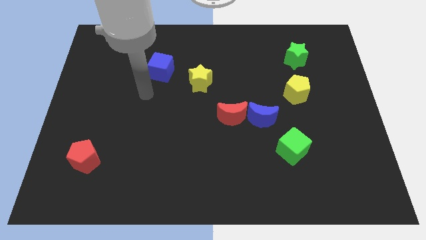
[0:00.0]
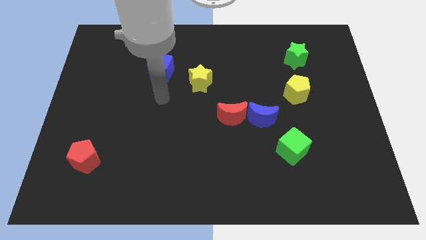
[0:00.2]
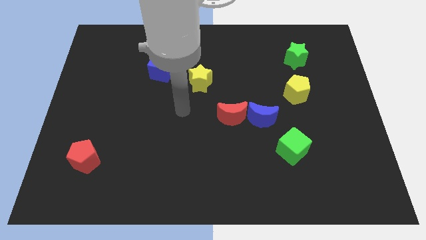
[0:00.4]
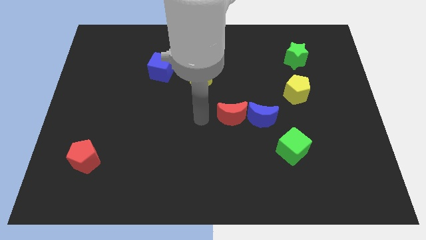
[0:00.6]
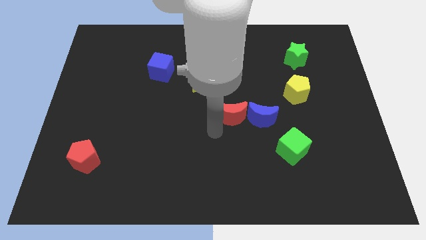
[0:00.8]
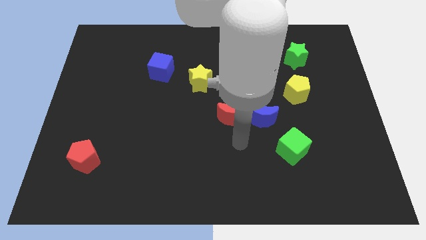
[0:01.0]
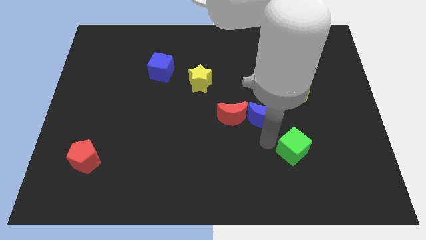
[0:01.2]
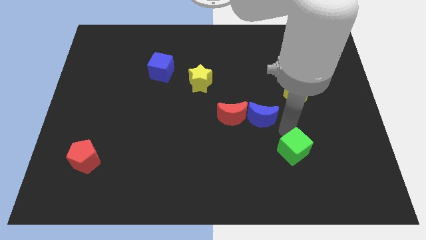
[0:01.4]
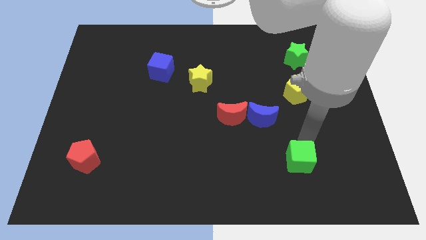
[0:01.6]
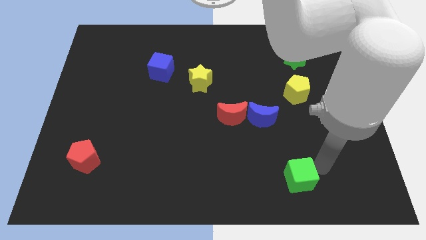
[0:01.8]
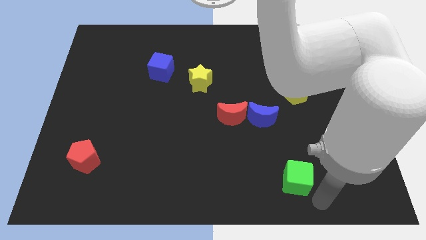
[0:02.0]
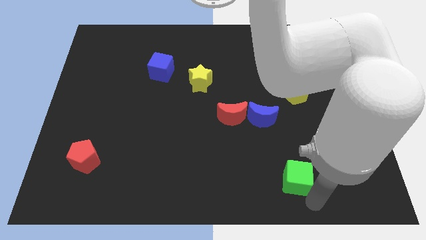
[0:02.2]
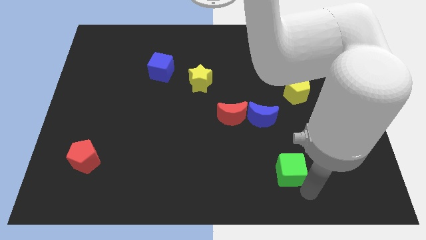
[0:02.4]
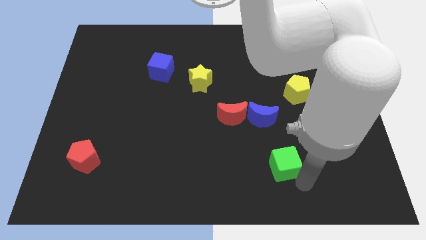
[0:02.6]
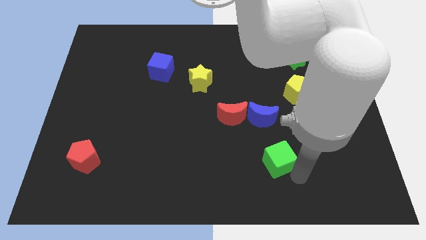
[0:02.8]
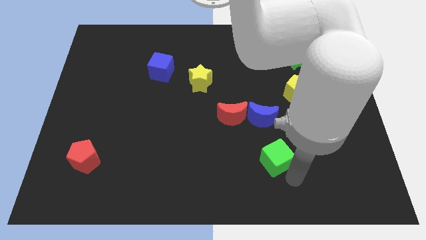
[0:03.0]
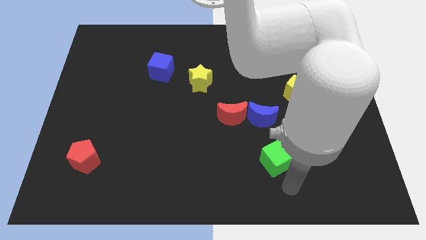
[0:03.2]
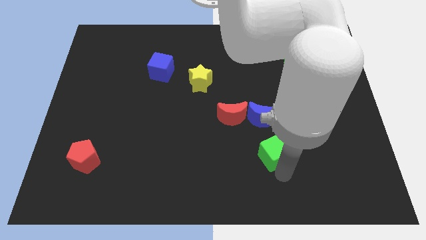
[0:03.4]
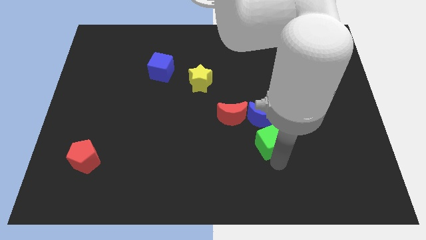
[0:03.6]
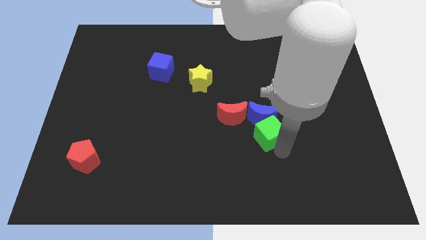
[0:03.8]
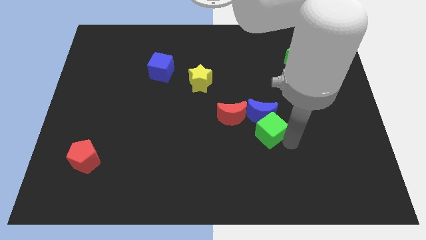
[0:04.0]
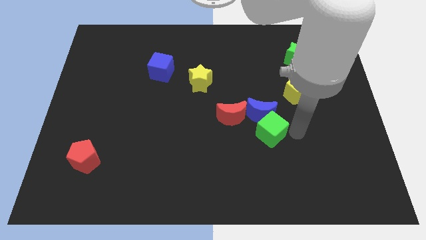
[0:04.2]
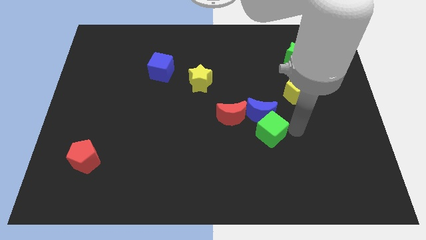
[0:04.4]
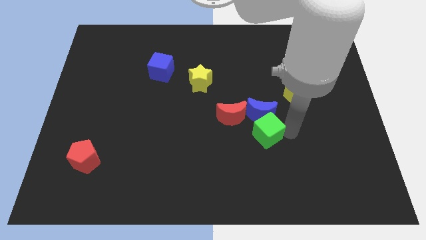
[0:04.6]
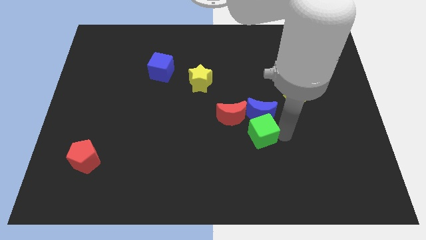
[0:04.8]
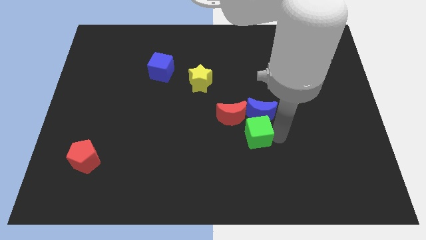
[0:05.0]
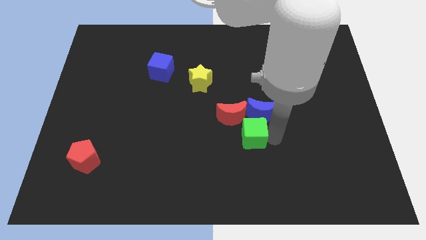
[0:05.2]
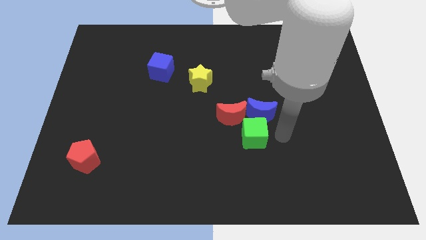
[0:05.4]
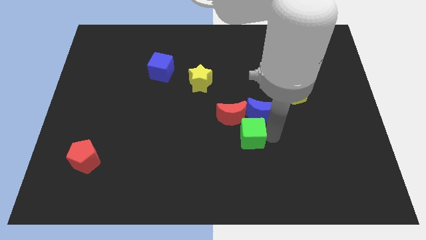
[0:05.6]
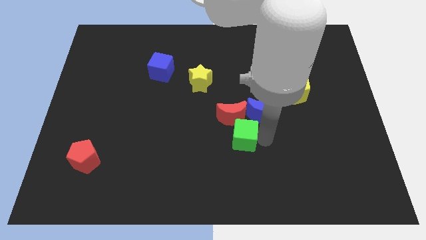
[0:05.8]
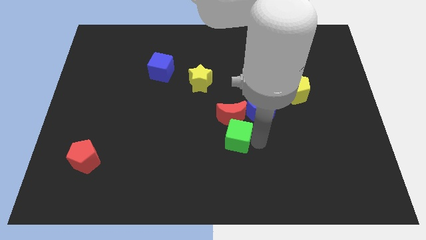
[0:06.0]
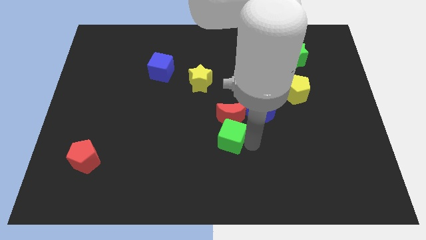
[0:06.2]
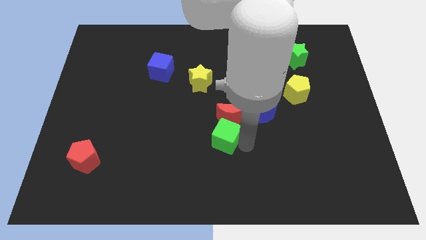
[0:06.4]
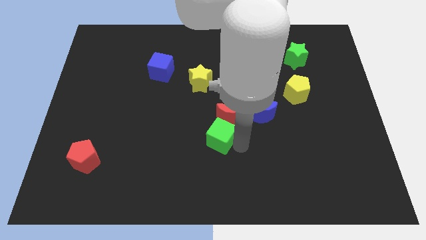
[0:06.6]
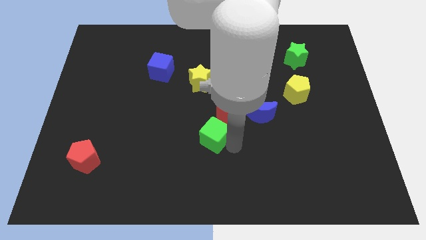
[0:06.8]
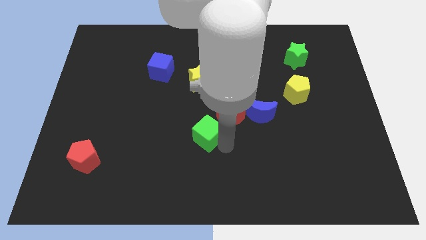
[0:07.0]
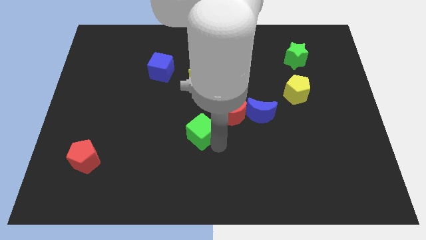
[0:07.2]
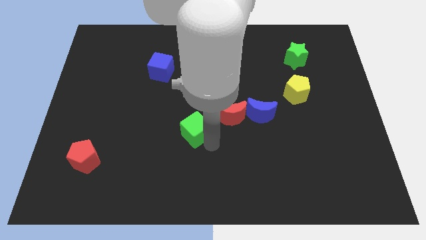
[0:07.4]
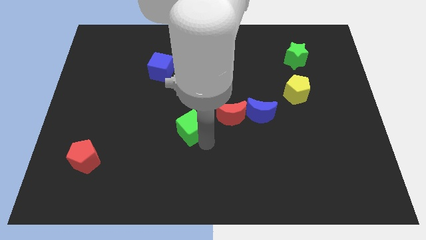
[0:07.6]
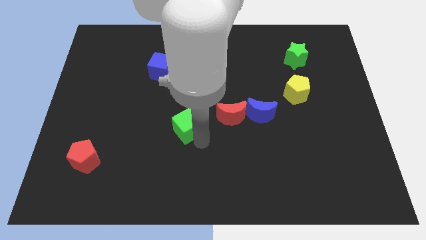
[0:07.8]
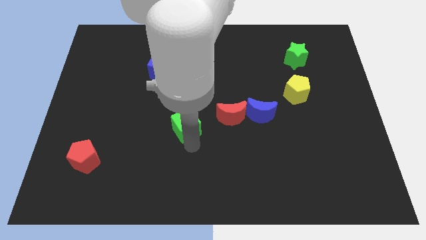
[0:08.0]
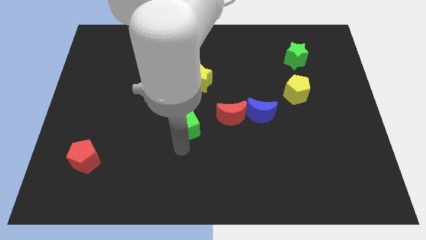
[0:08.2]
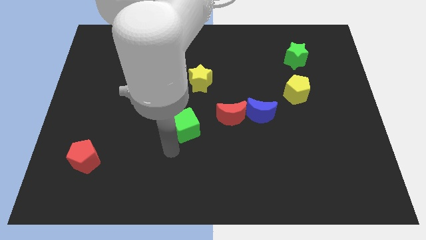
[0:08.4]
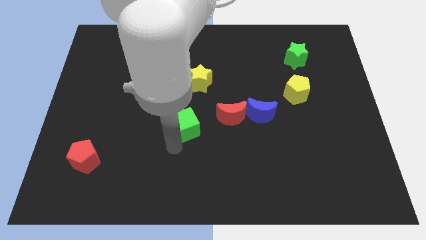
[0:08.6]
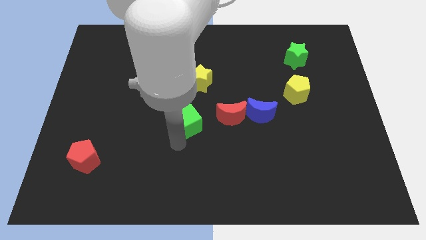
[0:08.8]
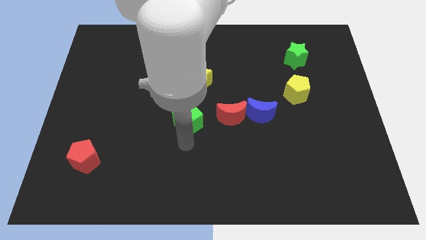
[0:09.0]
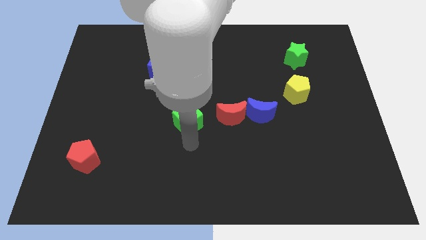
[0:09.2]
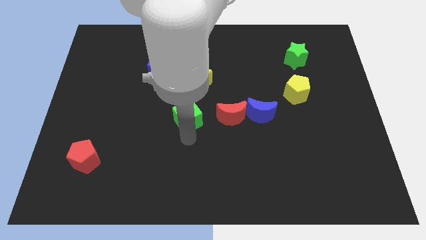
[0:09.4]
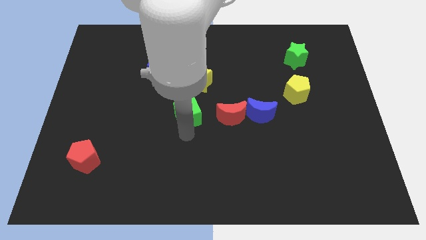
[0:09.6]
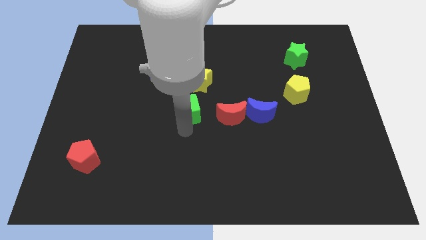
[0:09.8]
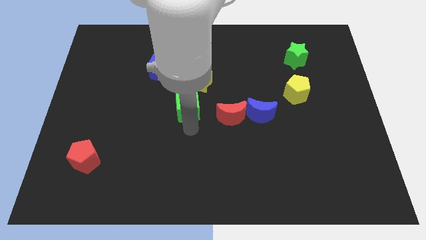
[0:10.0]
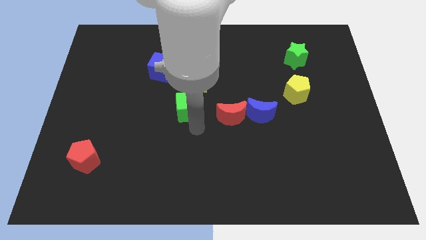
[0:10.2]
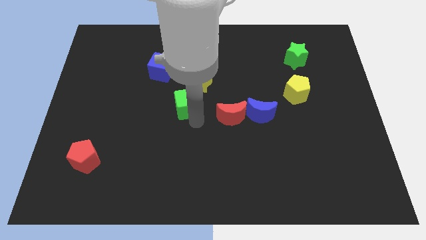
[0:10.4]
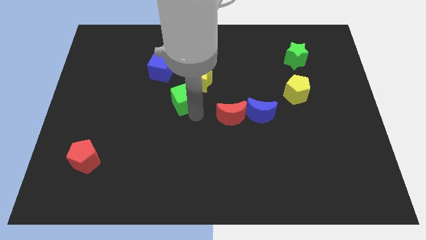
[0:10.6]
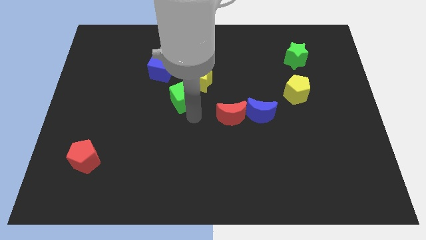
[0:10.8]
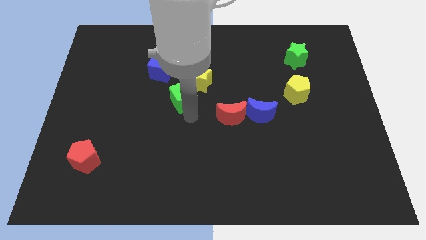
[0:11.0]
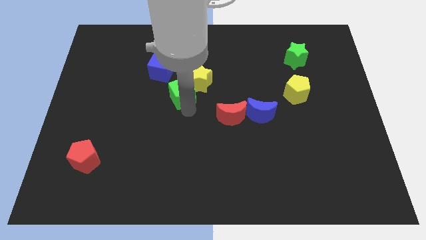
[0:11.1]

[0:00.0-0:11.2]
push the green cube to the left side of the yellow star

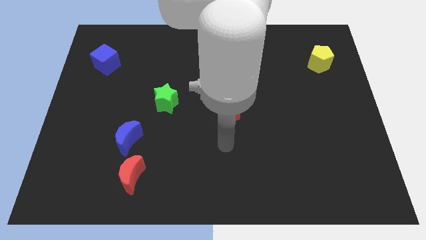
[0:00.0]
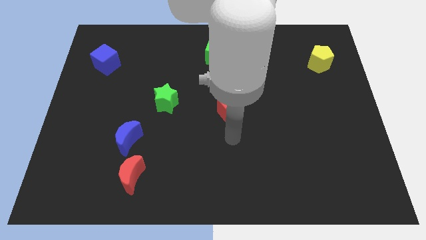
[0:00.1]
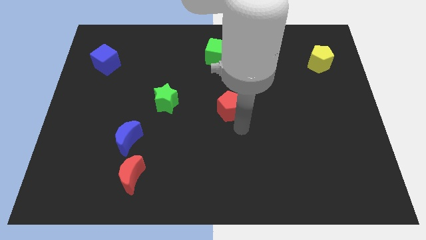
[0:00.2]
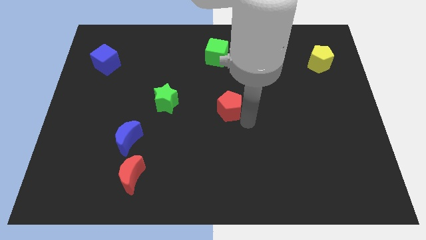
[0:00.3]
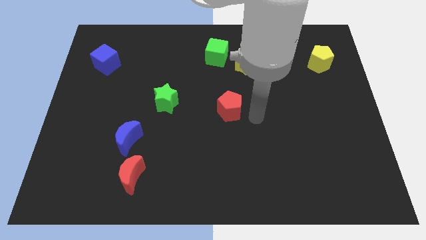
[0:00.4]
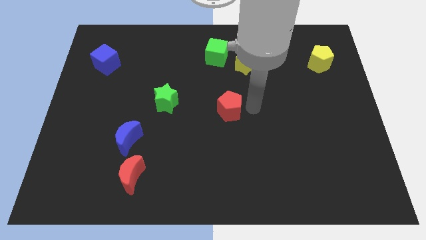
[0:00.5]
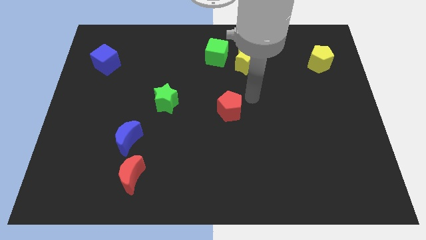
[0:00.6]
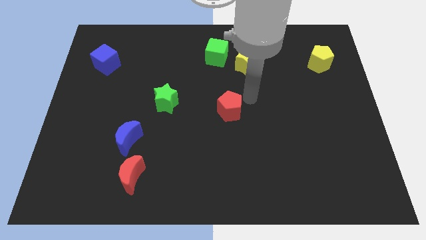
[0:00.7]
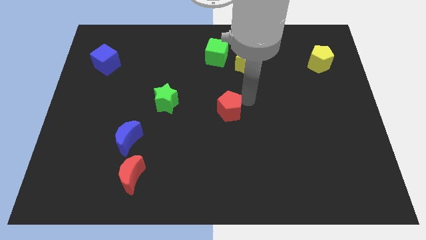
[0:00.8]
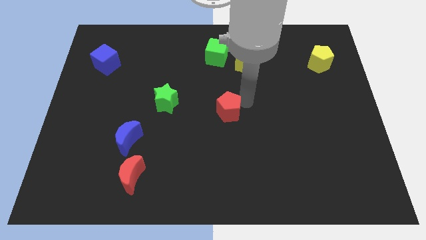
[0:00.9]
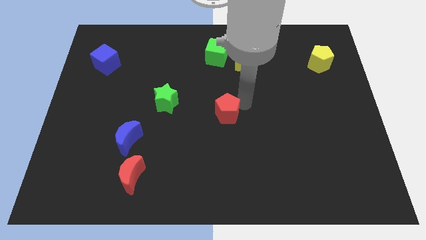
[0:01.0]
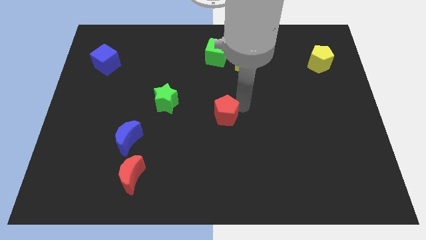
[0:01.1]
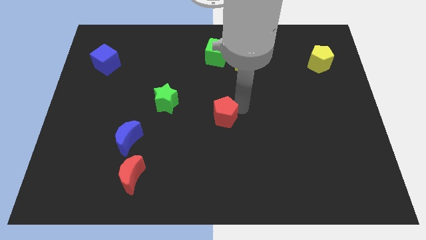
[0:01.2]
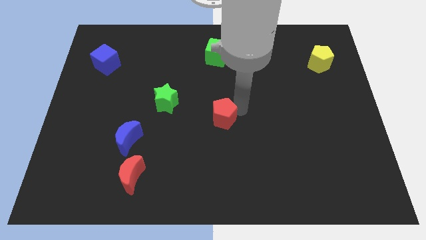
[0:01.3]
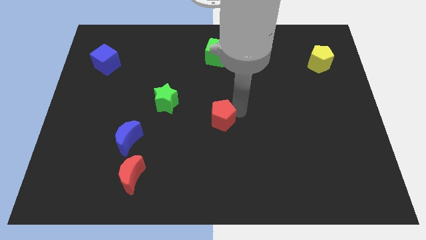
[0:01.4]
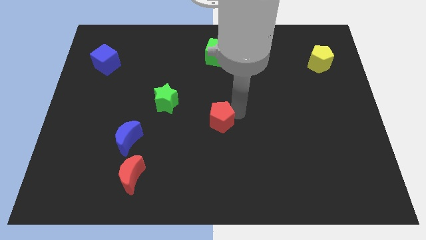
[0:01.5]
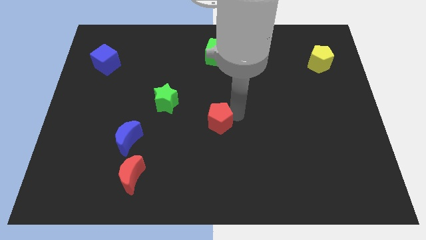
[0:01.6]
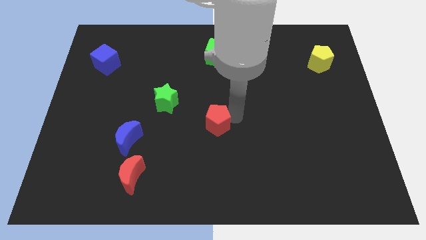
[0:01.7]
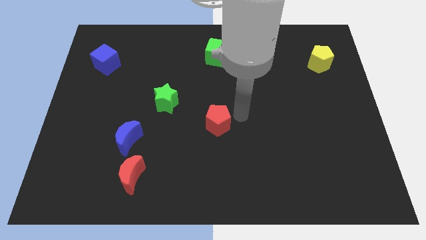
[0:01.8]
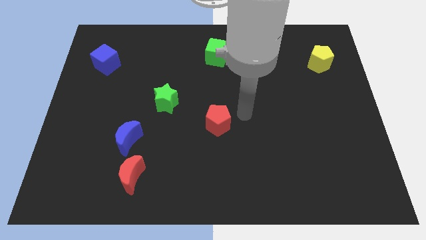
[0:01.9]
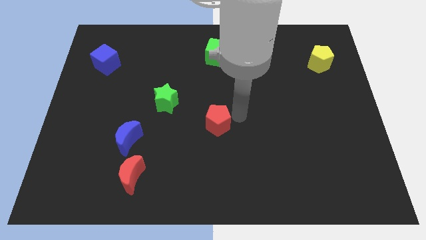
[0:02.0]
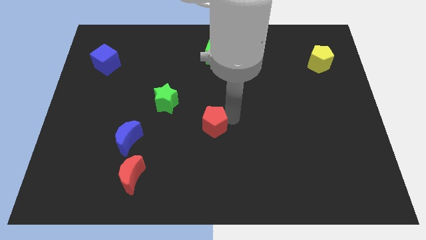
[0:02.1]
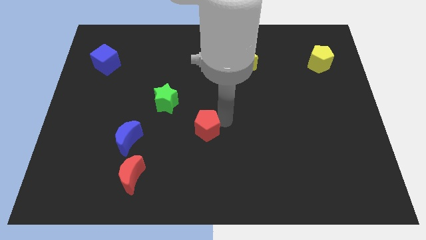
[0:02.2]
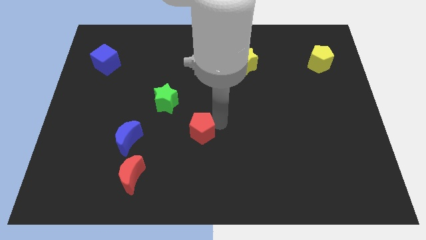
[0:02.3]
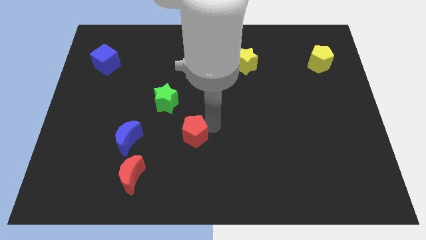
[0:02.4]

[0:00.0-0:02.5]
push the red pentagon to the right side of the blue moon
